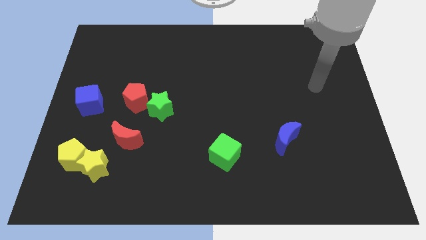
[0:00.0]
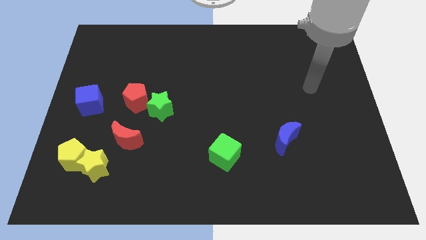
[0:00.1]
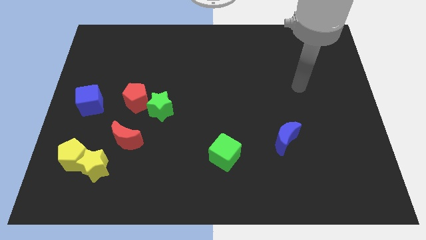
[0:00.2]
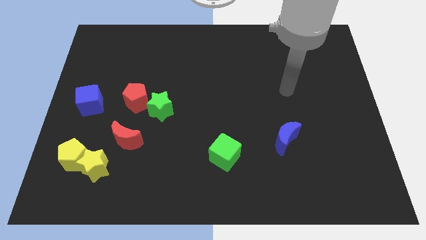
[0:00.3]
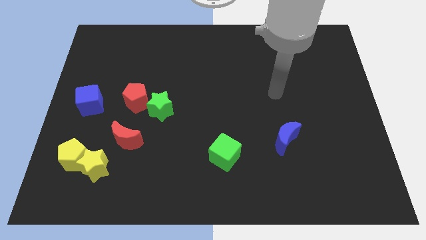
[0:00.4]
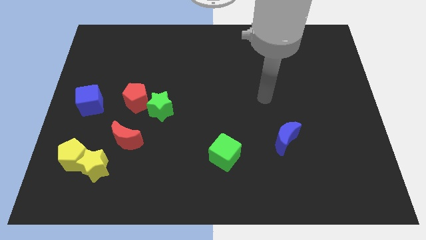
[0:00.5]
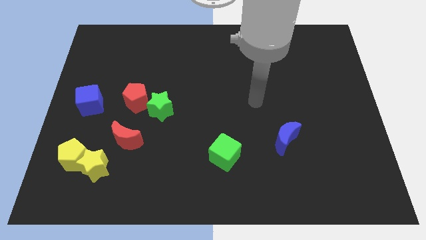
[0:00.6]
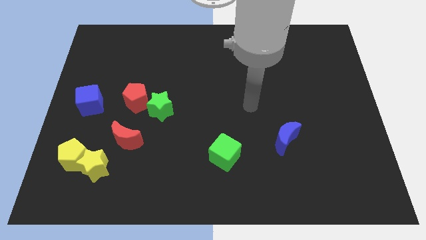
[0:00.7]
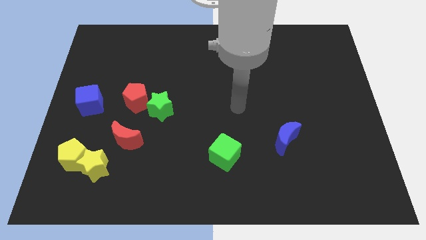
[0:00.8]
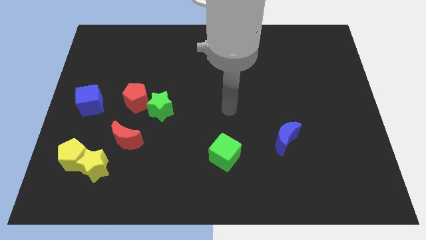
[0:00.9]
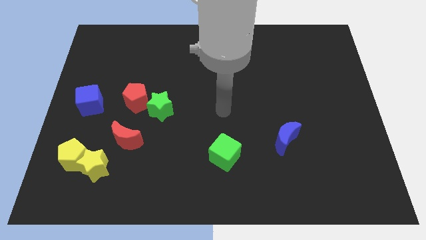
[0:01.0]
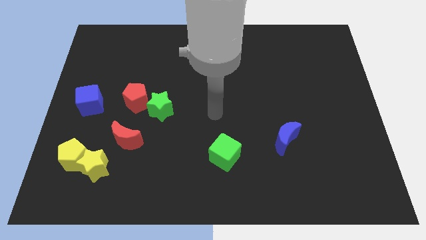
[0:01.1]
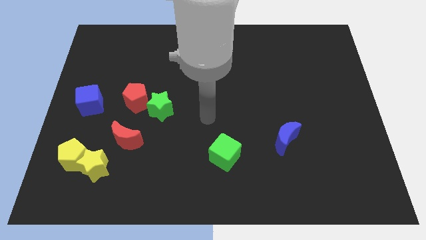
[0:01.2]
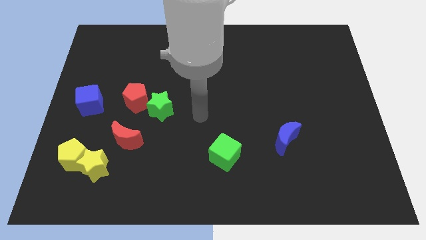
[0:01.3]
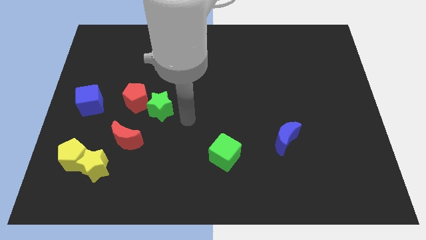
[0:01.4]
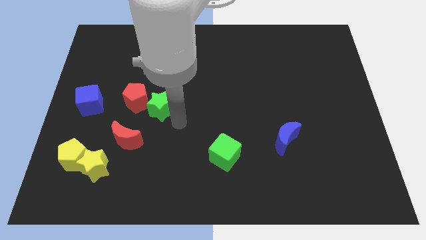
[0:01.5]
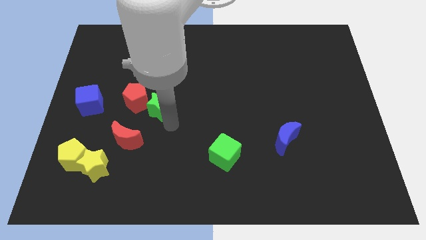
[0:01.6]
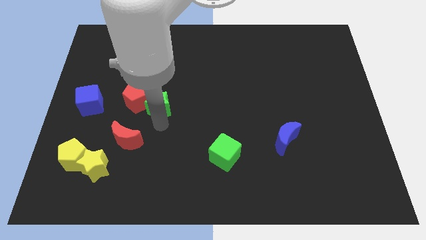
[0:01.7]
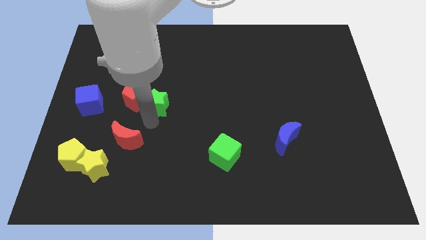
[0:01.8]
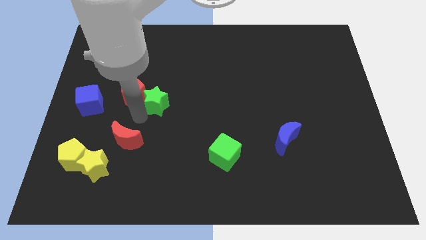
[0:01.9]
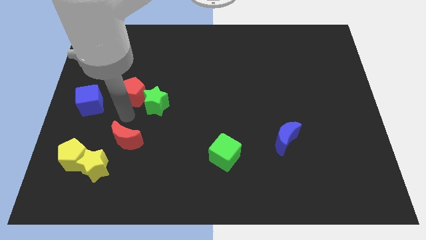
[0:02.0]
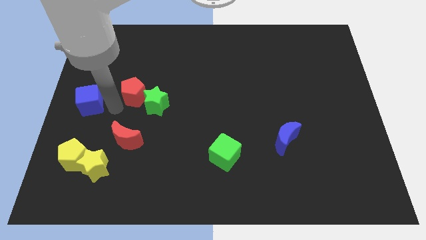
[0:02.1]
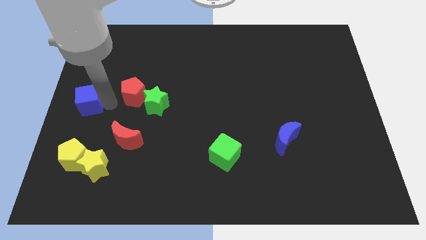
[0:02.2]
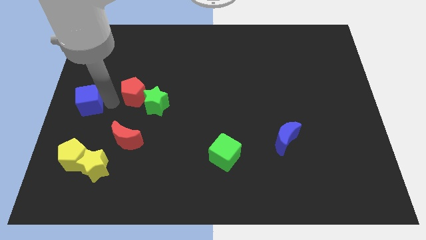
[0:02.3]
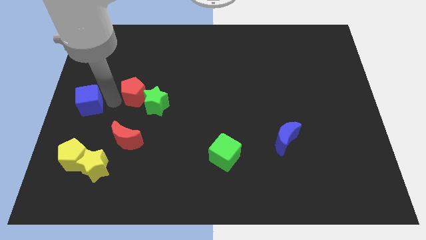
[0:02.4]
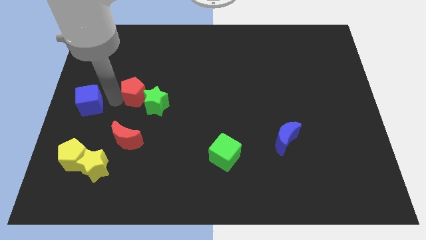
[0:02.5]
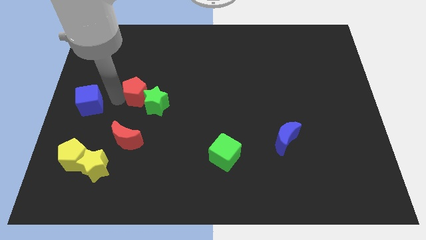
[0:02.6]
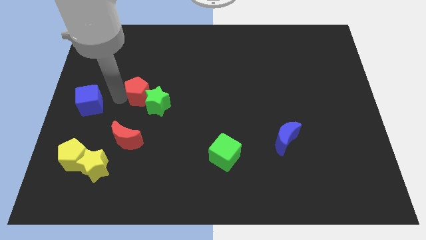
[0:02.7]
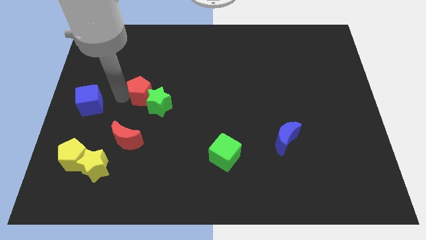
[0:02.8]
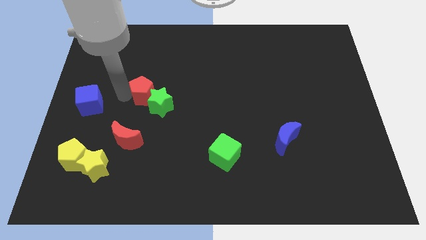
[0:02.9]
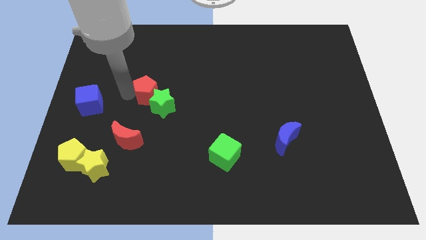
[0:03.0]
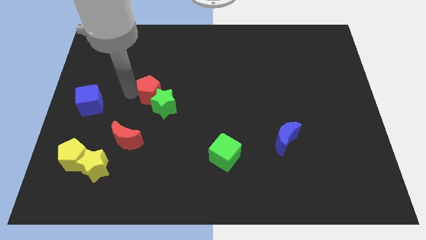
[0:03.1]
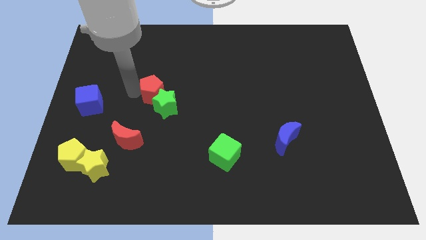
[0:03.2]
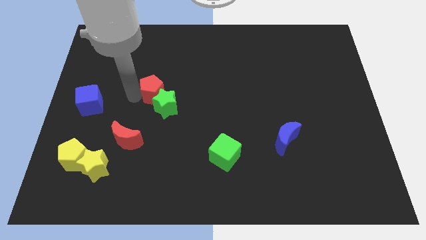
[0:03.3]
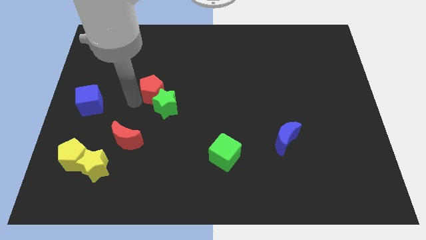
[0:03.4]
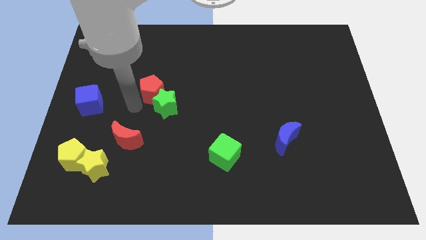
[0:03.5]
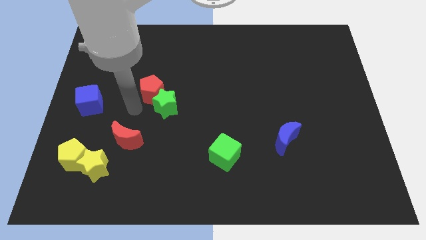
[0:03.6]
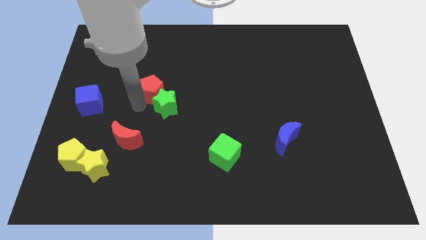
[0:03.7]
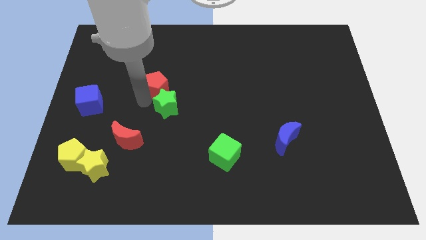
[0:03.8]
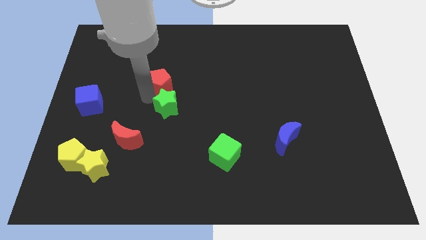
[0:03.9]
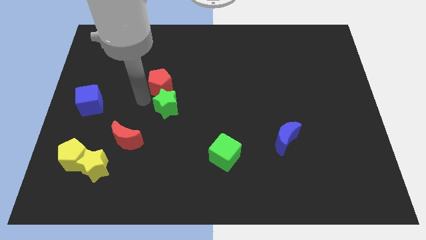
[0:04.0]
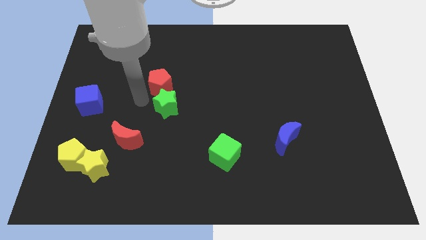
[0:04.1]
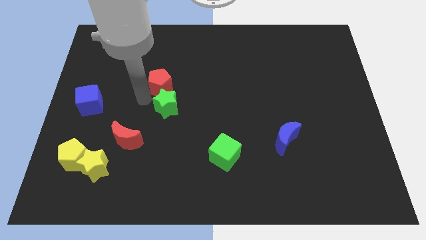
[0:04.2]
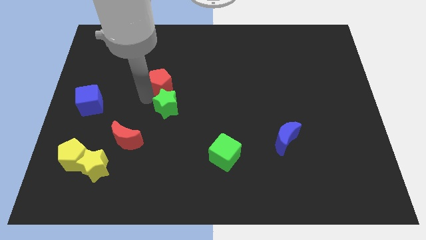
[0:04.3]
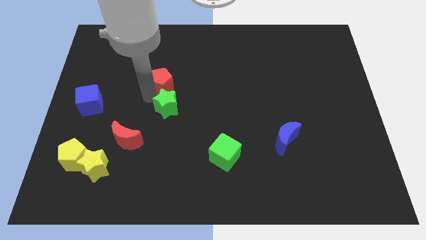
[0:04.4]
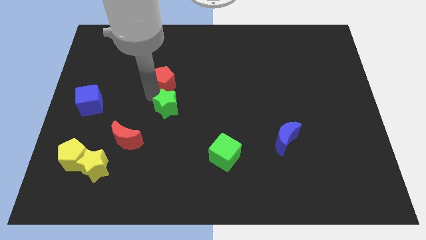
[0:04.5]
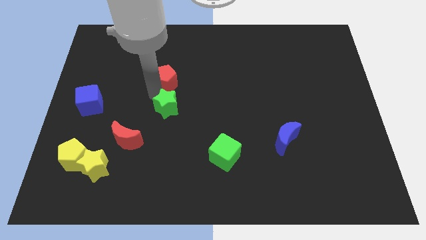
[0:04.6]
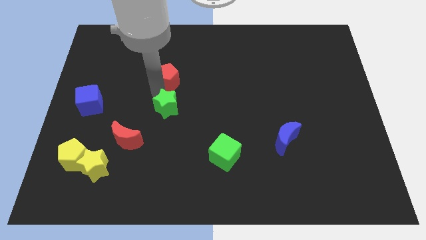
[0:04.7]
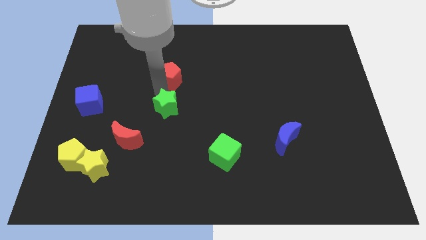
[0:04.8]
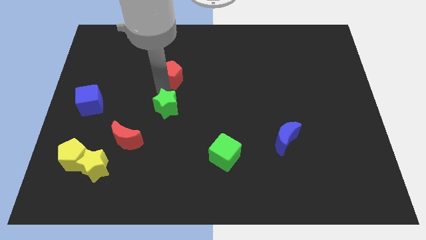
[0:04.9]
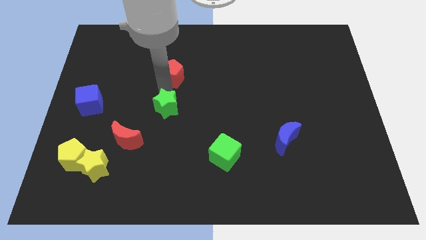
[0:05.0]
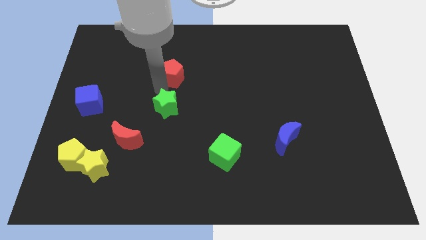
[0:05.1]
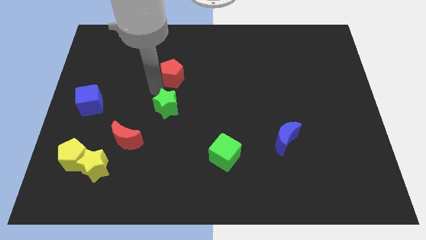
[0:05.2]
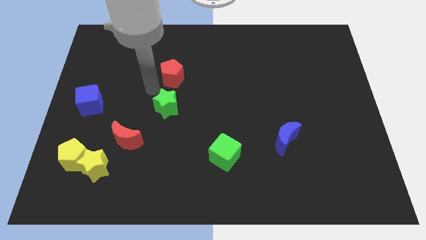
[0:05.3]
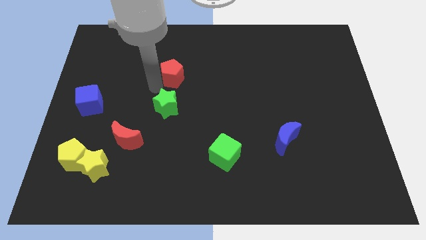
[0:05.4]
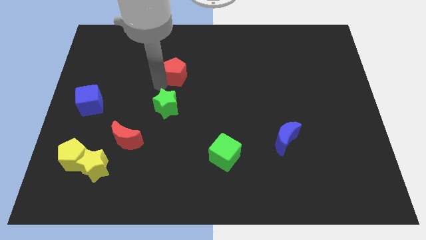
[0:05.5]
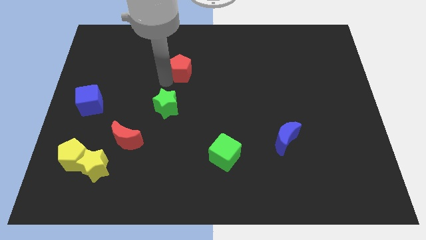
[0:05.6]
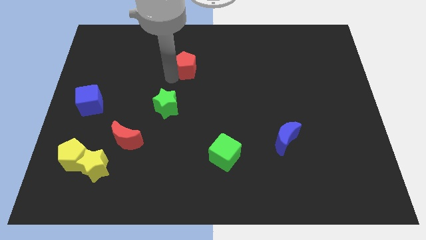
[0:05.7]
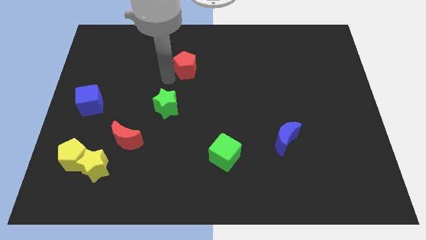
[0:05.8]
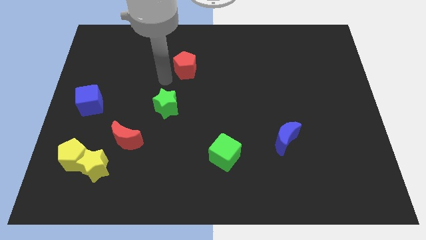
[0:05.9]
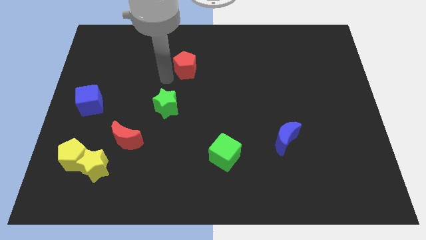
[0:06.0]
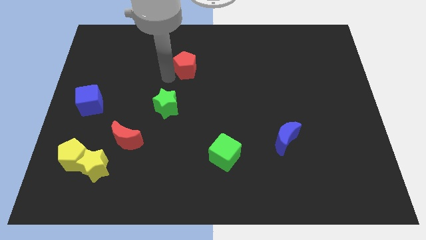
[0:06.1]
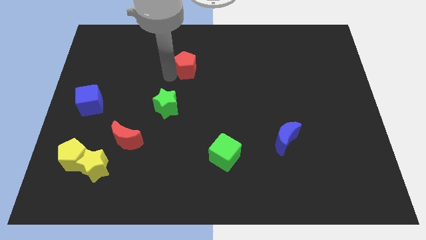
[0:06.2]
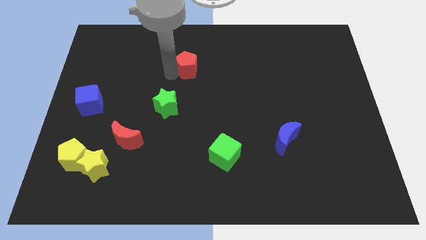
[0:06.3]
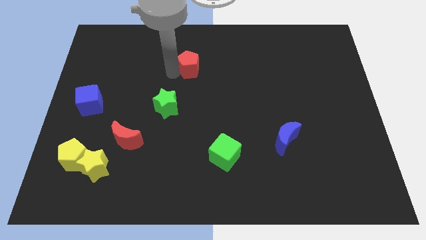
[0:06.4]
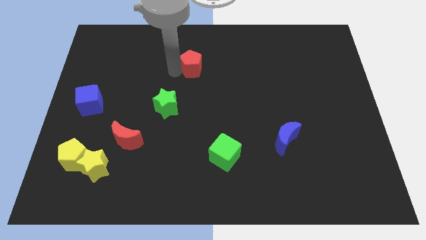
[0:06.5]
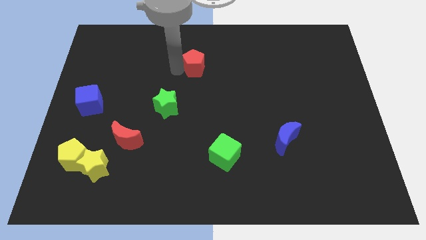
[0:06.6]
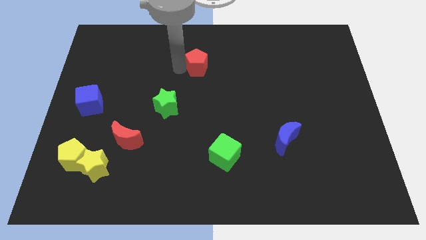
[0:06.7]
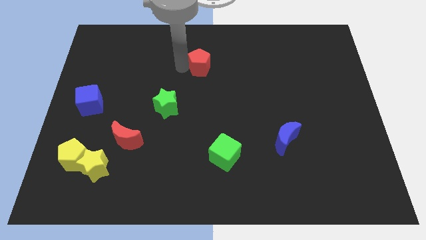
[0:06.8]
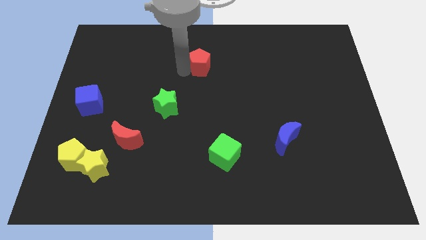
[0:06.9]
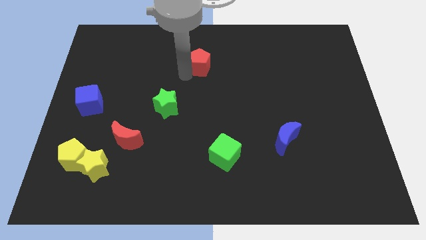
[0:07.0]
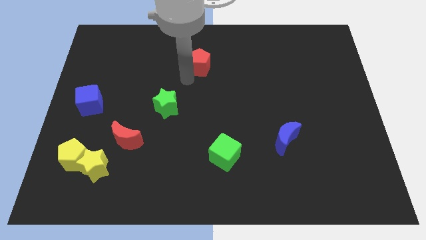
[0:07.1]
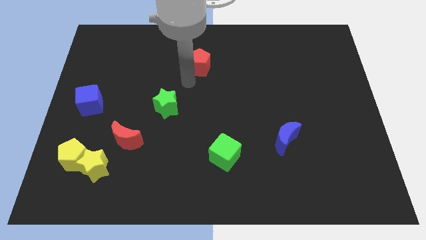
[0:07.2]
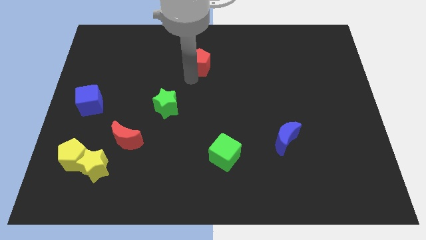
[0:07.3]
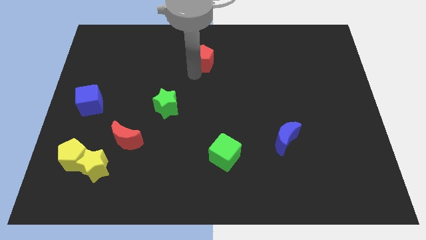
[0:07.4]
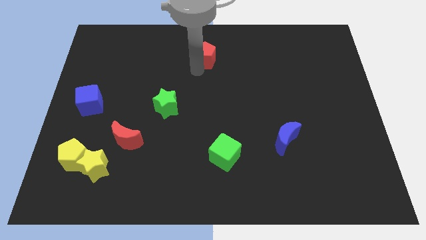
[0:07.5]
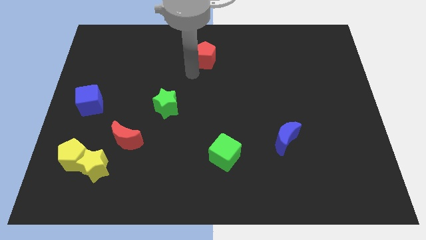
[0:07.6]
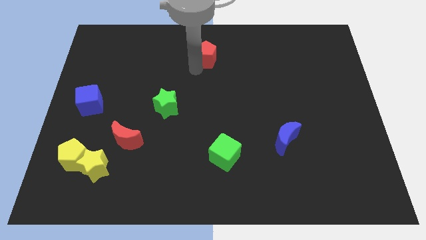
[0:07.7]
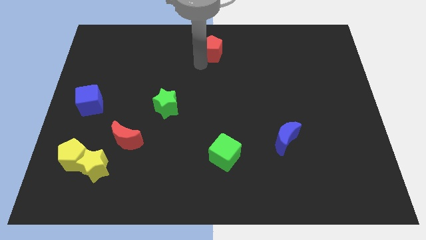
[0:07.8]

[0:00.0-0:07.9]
slide the red pentagon to the top side
